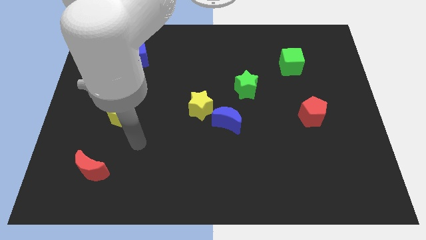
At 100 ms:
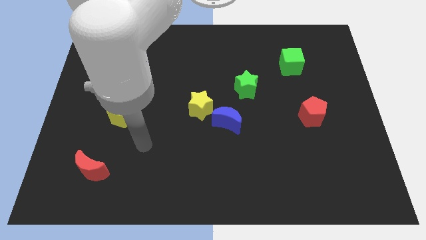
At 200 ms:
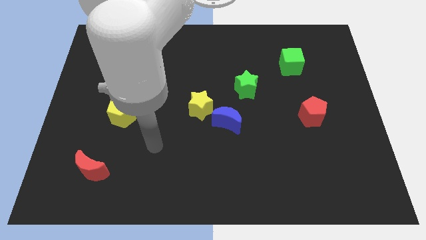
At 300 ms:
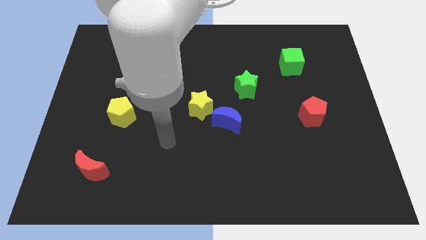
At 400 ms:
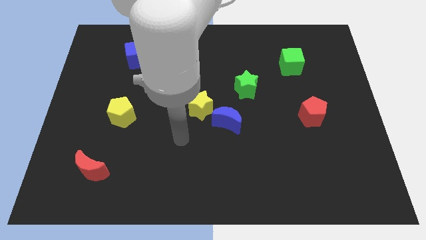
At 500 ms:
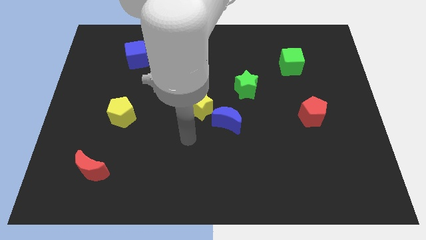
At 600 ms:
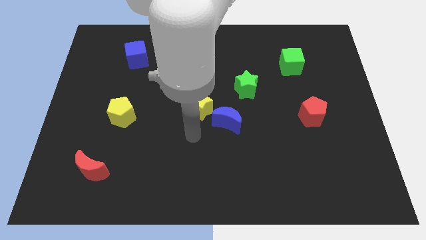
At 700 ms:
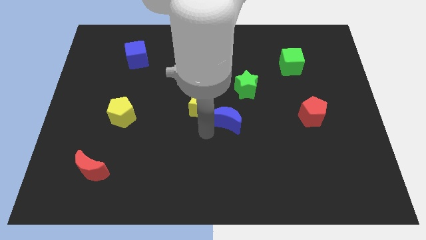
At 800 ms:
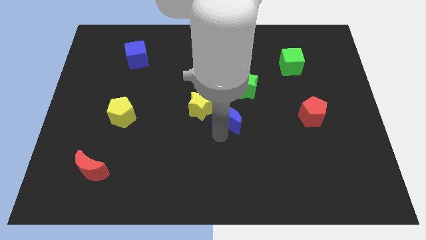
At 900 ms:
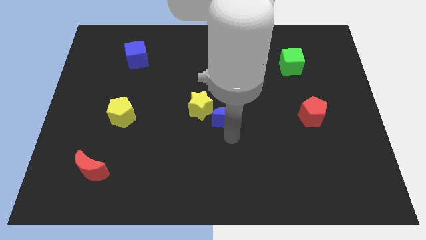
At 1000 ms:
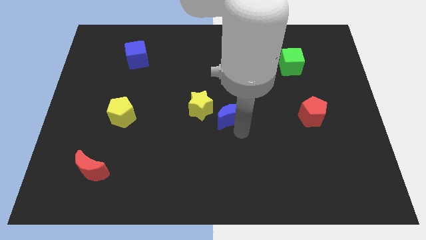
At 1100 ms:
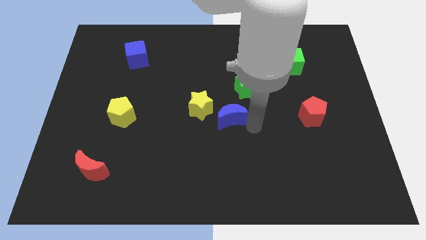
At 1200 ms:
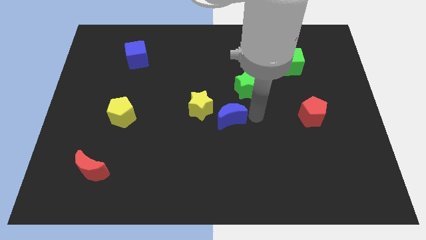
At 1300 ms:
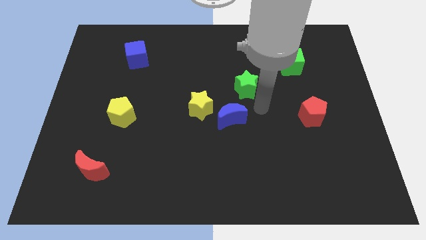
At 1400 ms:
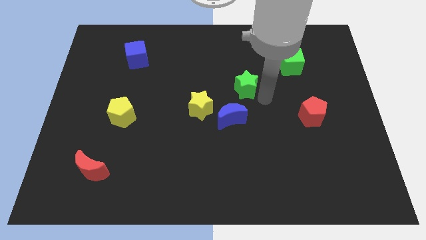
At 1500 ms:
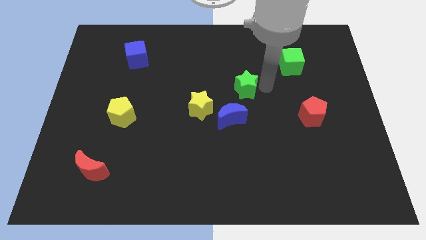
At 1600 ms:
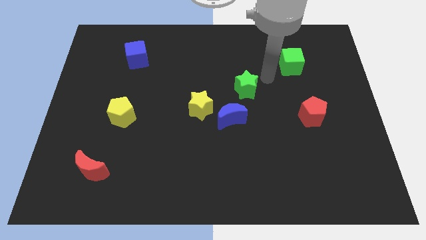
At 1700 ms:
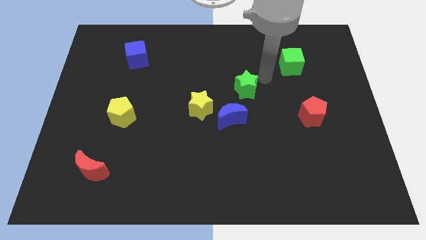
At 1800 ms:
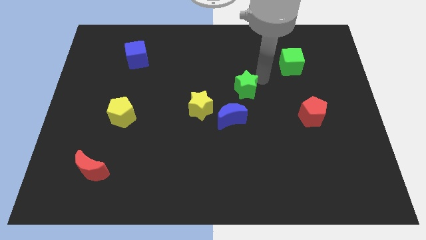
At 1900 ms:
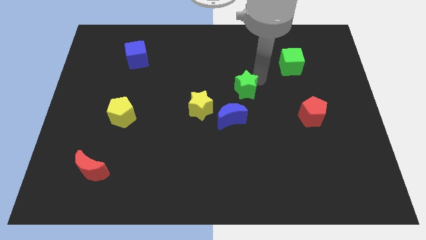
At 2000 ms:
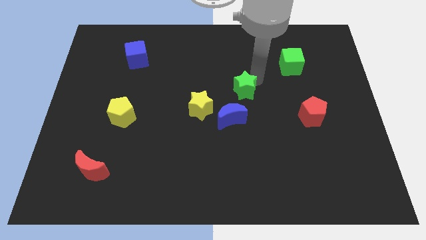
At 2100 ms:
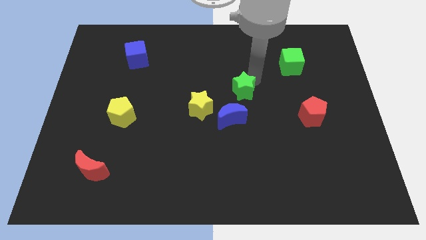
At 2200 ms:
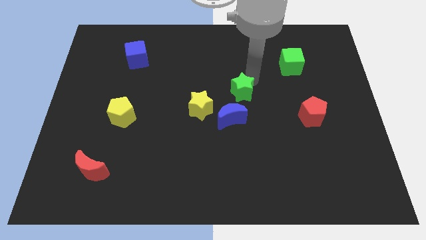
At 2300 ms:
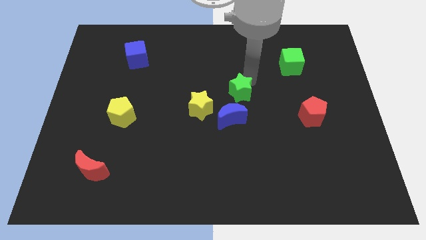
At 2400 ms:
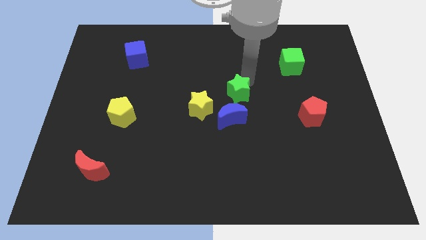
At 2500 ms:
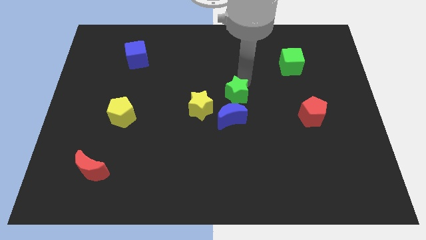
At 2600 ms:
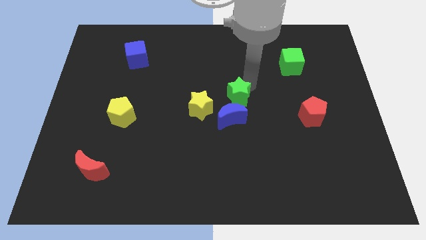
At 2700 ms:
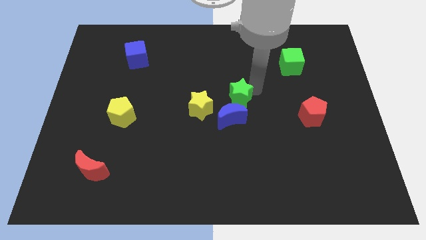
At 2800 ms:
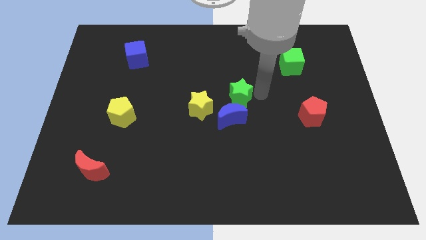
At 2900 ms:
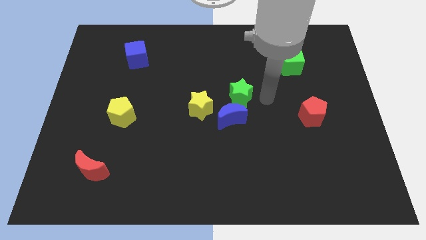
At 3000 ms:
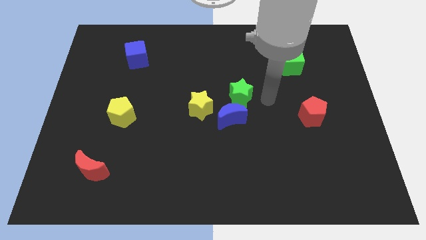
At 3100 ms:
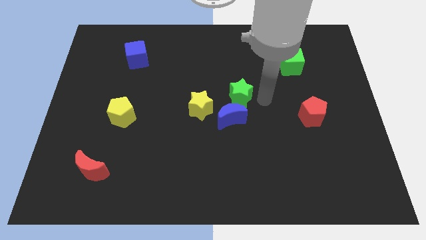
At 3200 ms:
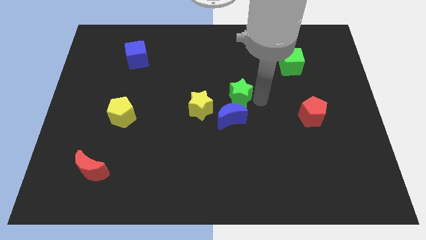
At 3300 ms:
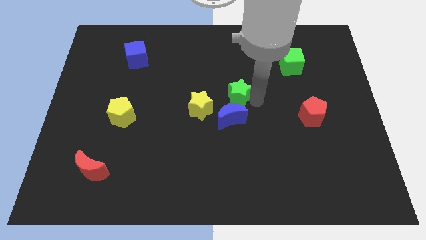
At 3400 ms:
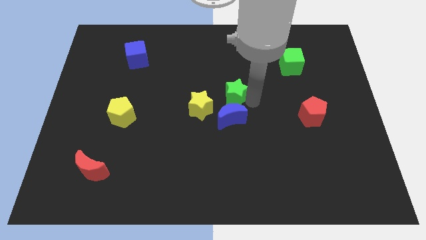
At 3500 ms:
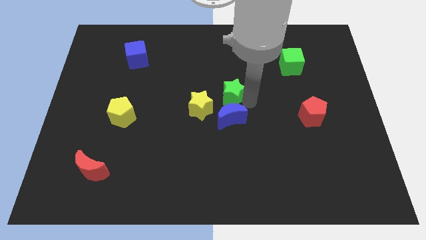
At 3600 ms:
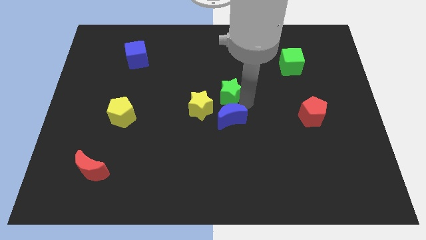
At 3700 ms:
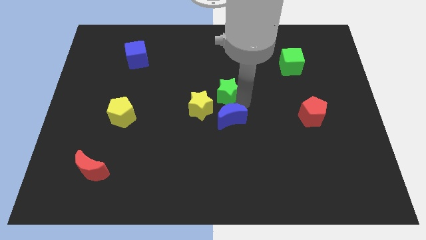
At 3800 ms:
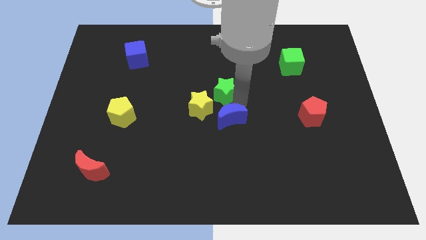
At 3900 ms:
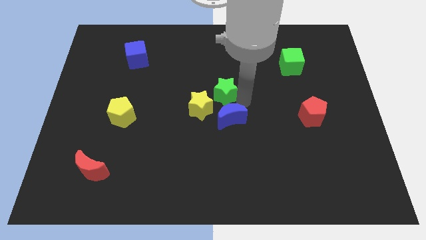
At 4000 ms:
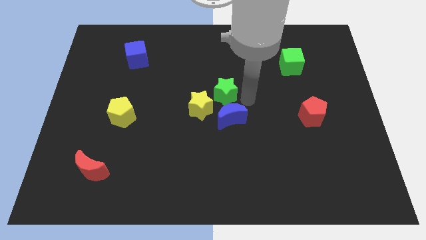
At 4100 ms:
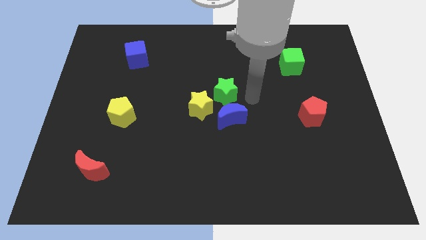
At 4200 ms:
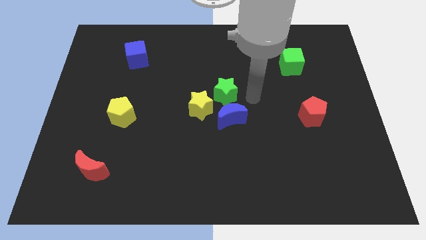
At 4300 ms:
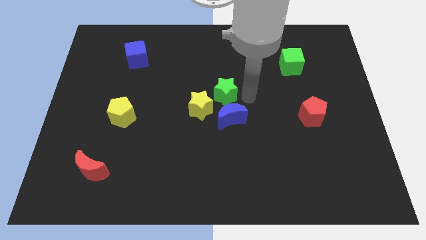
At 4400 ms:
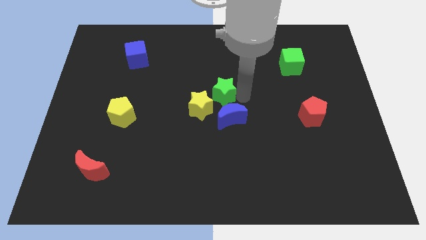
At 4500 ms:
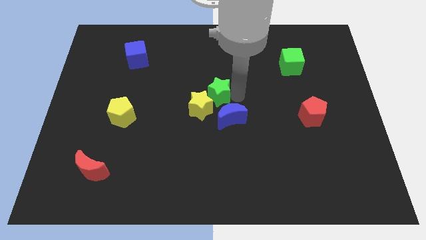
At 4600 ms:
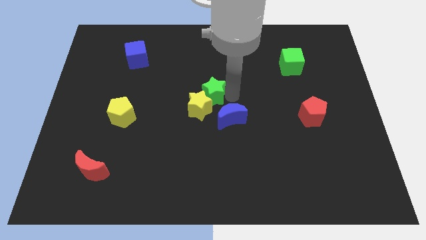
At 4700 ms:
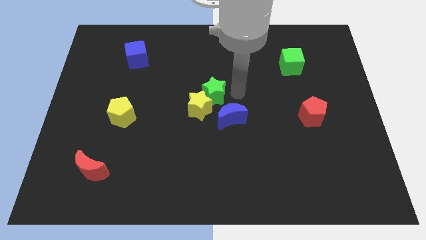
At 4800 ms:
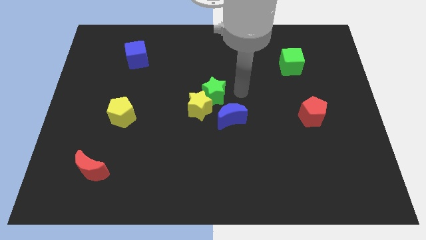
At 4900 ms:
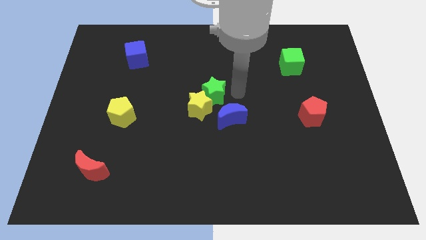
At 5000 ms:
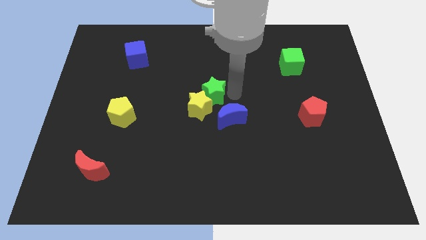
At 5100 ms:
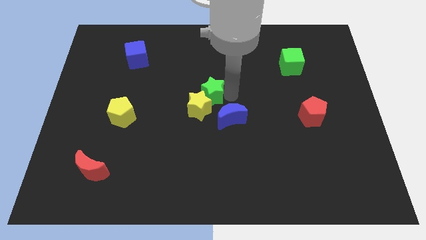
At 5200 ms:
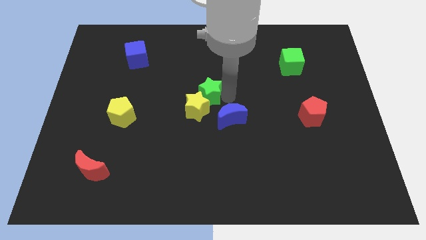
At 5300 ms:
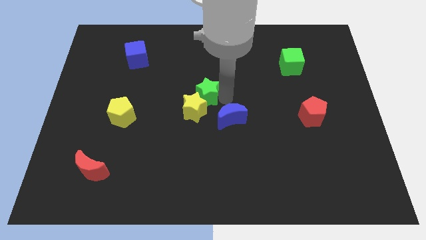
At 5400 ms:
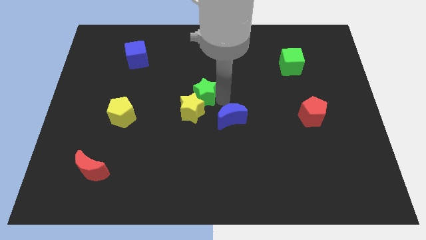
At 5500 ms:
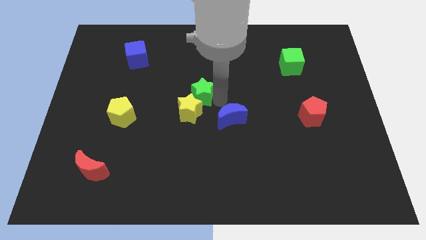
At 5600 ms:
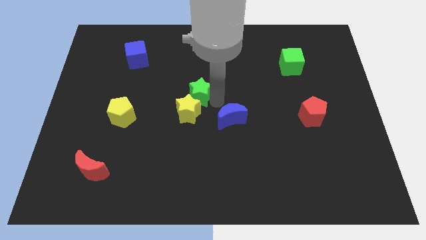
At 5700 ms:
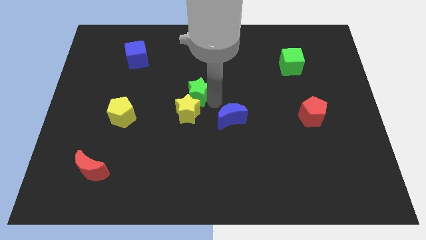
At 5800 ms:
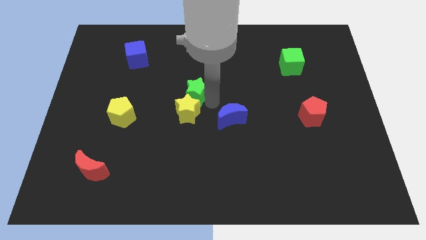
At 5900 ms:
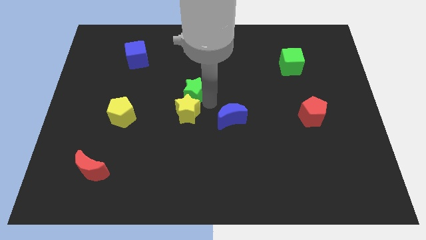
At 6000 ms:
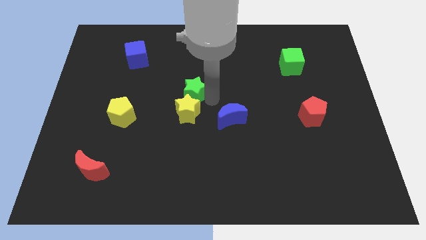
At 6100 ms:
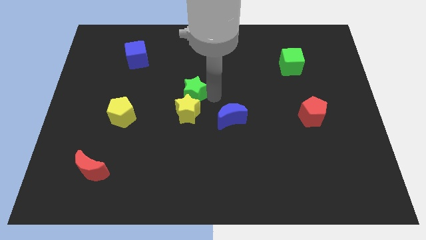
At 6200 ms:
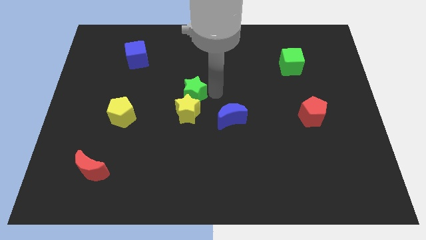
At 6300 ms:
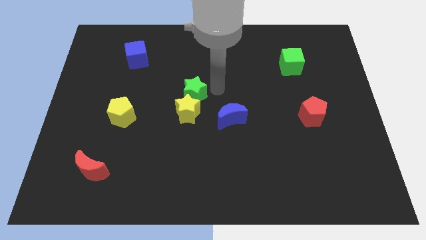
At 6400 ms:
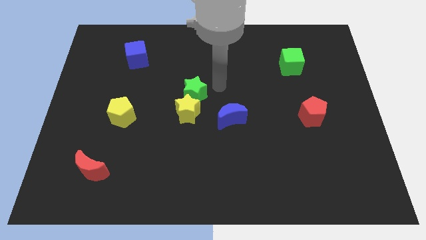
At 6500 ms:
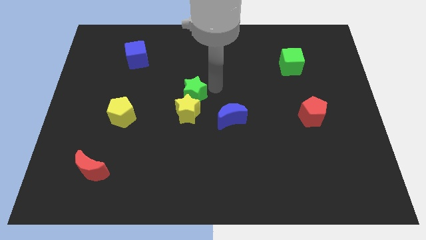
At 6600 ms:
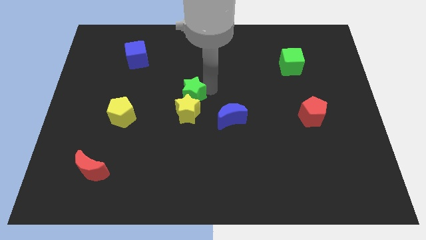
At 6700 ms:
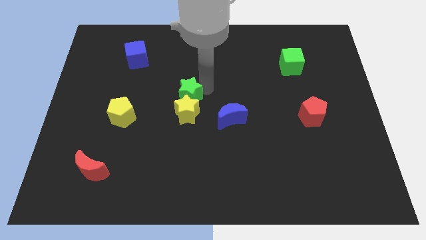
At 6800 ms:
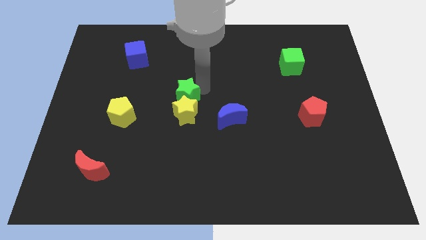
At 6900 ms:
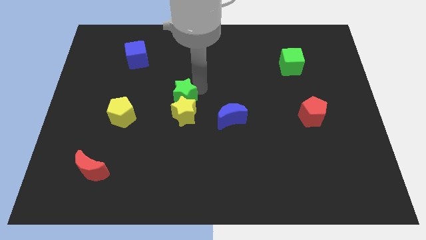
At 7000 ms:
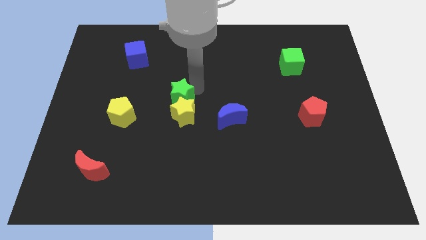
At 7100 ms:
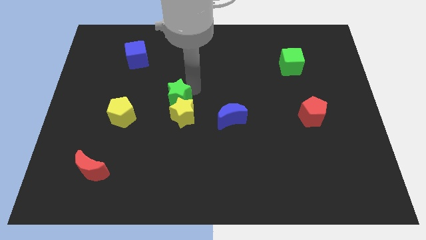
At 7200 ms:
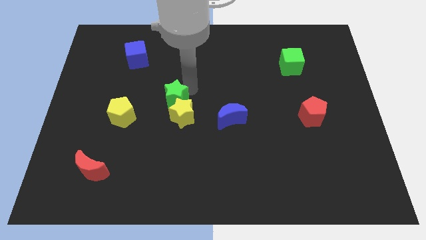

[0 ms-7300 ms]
slide the green star to the right side of the yellow pentagon
